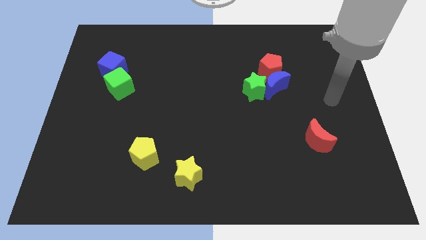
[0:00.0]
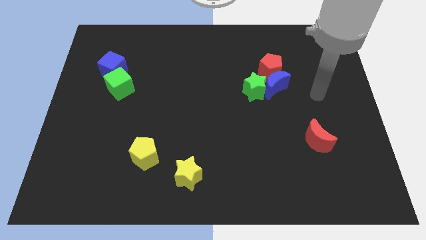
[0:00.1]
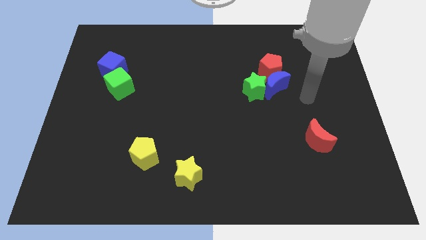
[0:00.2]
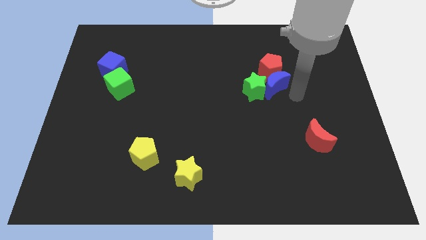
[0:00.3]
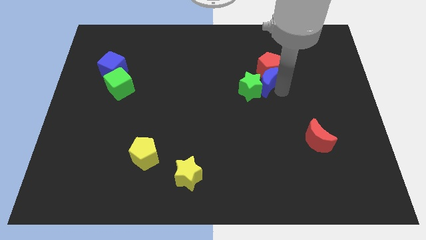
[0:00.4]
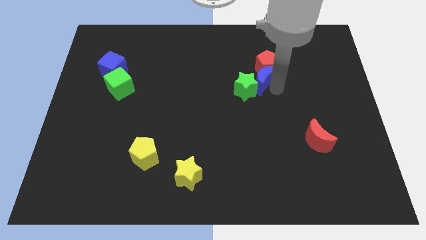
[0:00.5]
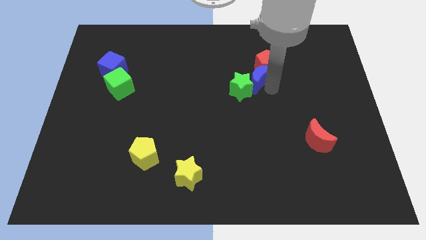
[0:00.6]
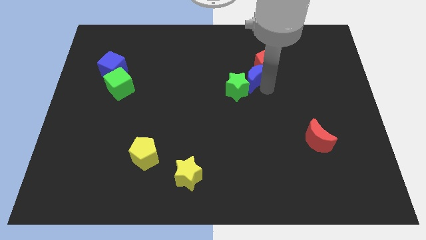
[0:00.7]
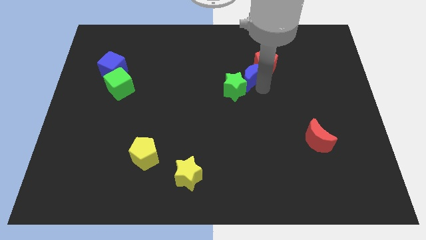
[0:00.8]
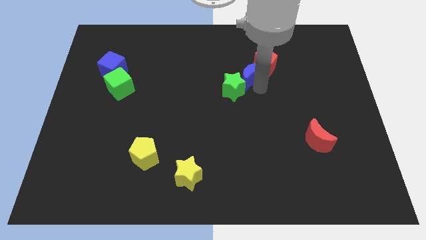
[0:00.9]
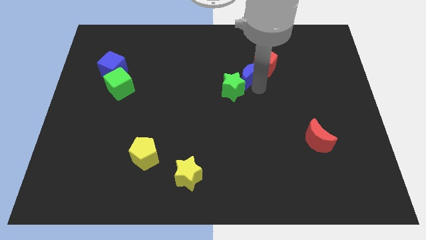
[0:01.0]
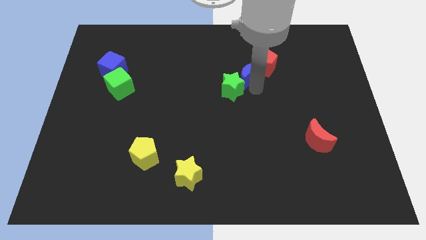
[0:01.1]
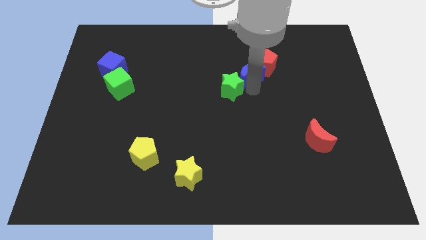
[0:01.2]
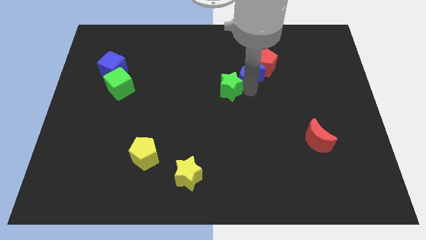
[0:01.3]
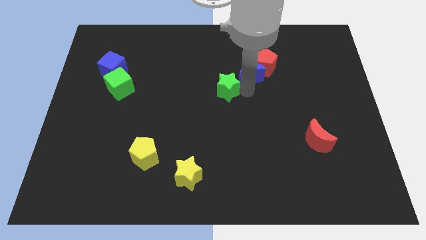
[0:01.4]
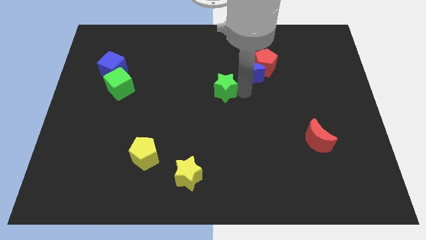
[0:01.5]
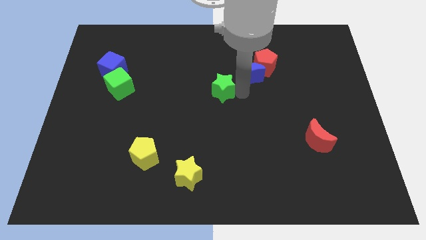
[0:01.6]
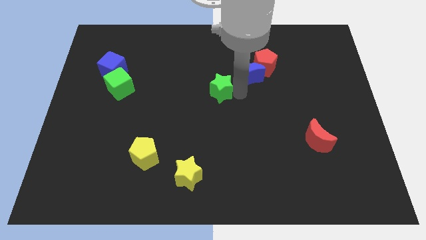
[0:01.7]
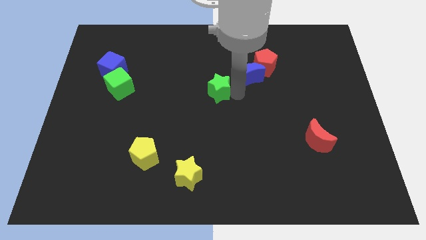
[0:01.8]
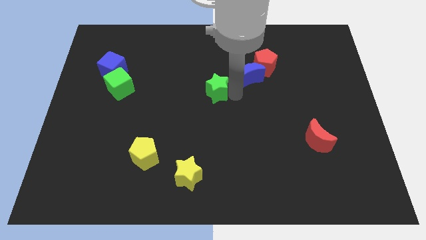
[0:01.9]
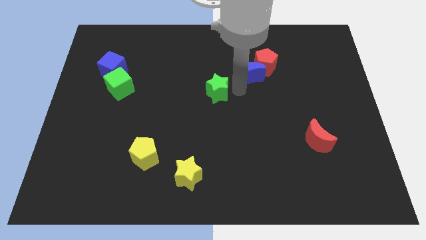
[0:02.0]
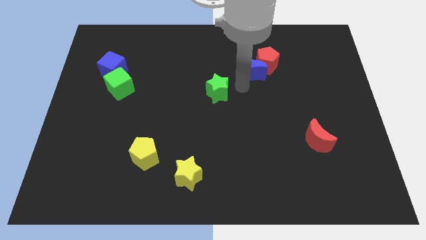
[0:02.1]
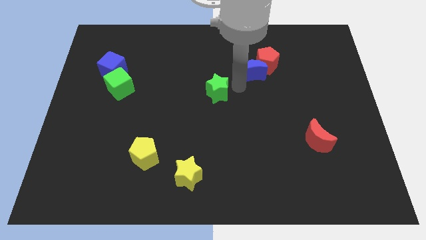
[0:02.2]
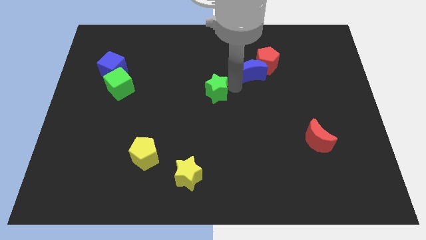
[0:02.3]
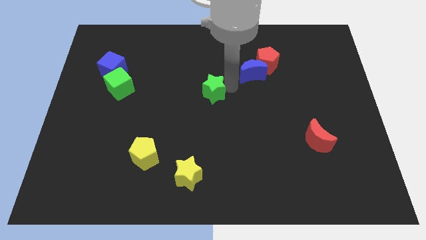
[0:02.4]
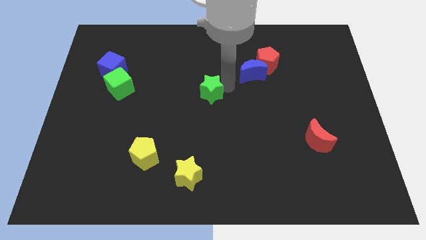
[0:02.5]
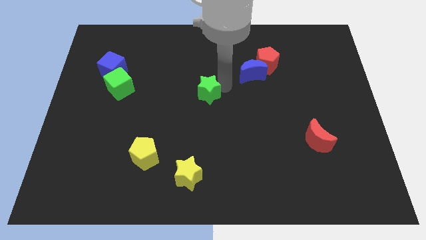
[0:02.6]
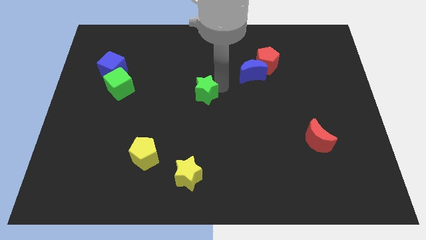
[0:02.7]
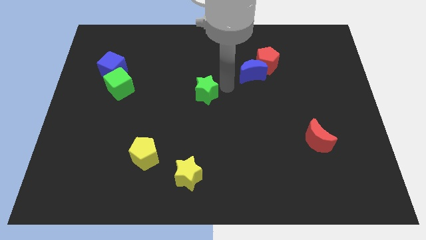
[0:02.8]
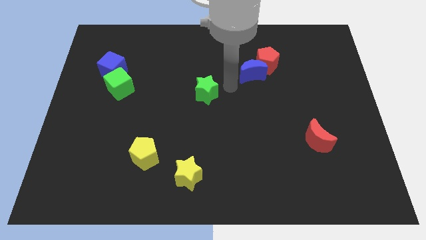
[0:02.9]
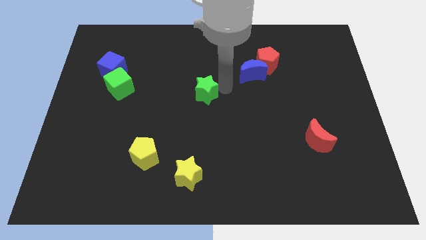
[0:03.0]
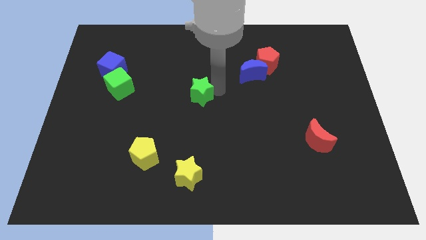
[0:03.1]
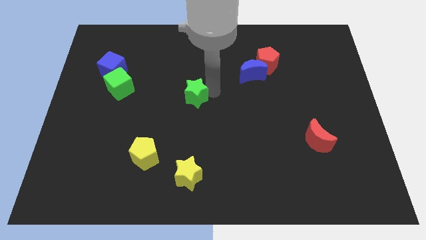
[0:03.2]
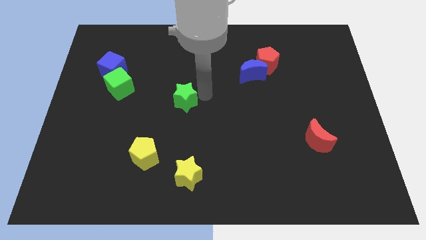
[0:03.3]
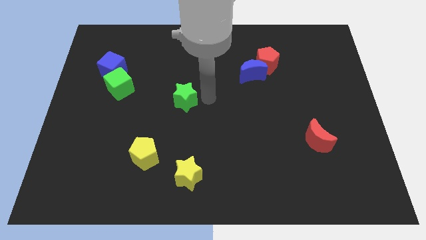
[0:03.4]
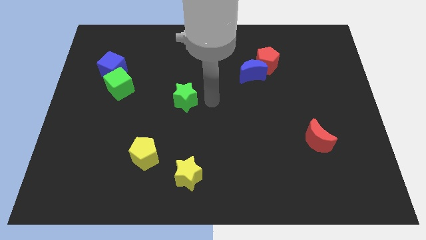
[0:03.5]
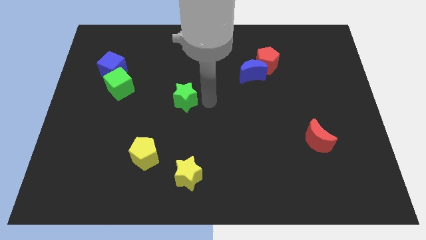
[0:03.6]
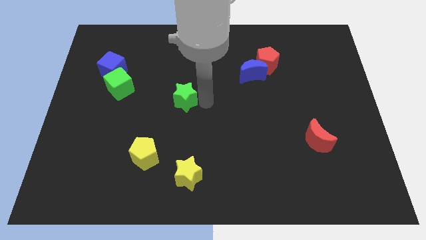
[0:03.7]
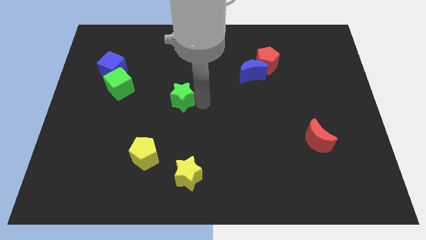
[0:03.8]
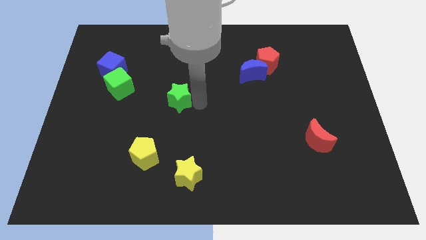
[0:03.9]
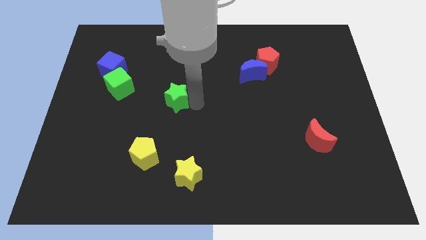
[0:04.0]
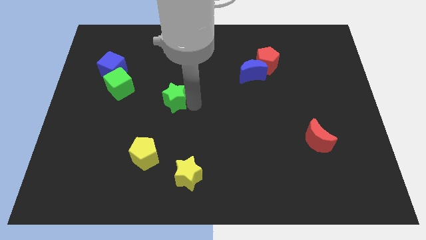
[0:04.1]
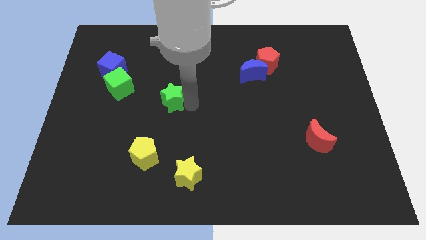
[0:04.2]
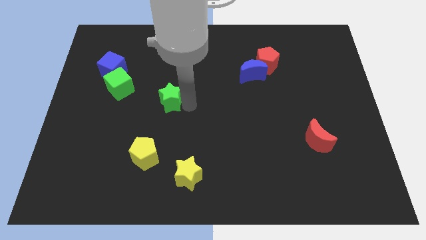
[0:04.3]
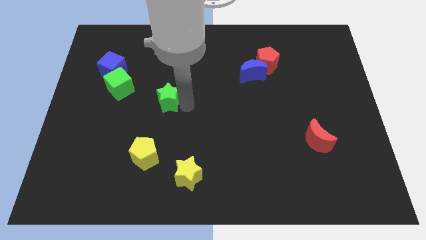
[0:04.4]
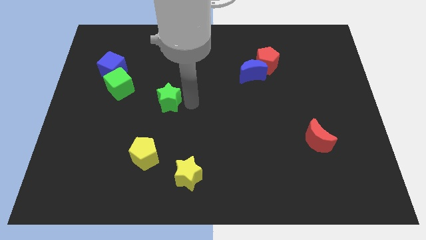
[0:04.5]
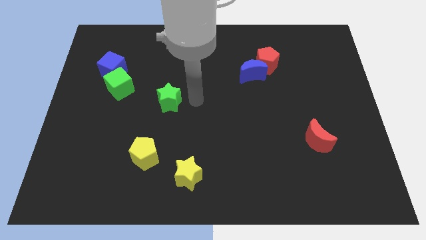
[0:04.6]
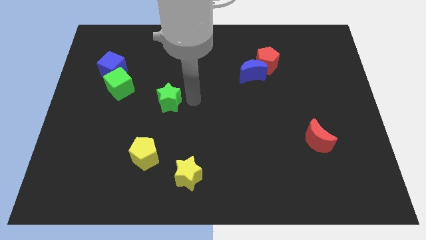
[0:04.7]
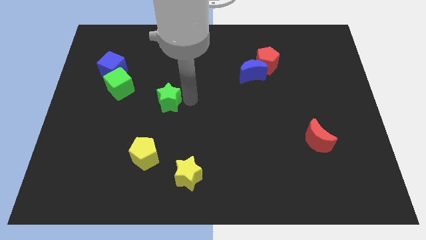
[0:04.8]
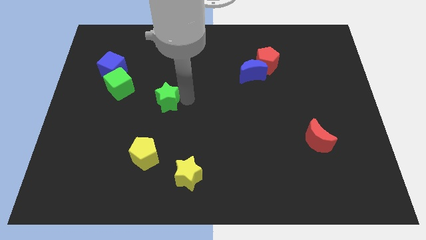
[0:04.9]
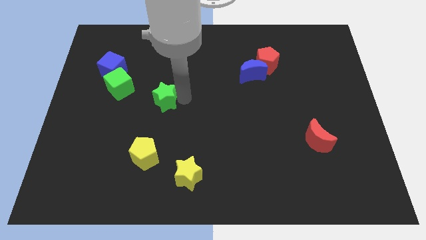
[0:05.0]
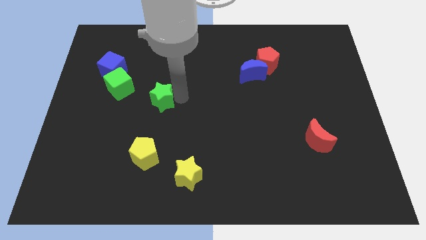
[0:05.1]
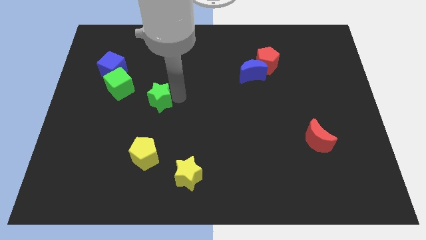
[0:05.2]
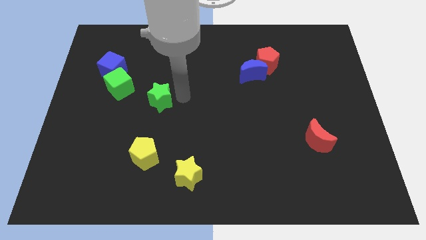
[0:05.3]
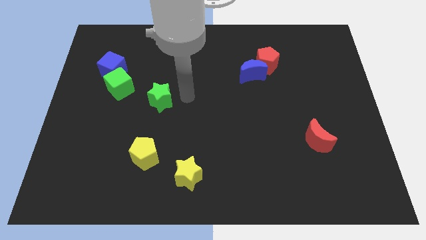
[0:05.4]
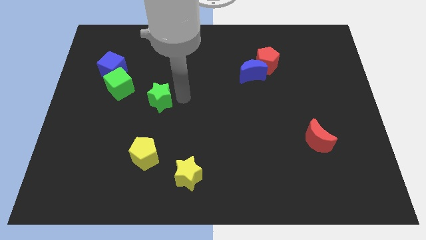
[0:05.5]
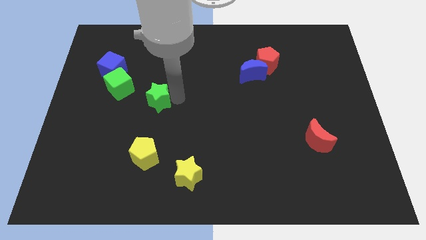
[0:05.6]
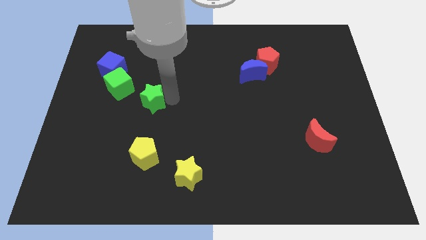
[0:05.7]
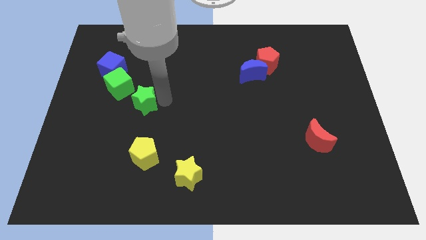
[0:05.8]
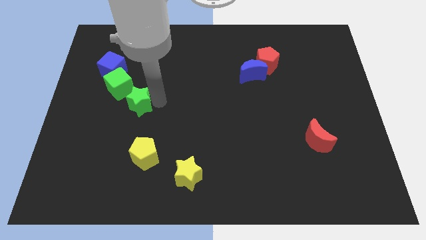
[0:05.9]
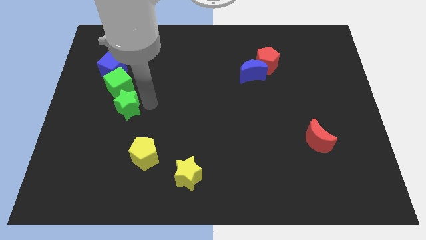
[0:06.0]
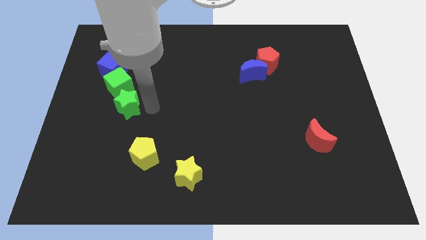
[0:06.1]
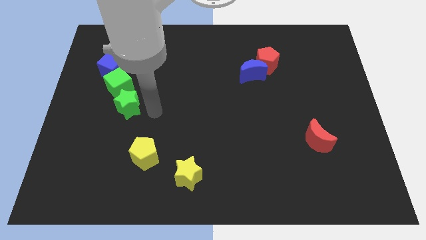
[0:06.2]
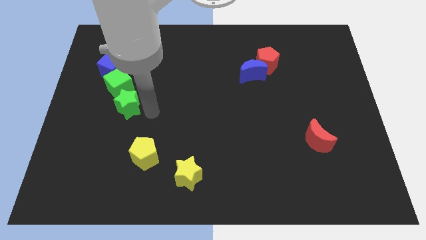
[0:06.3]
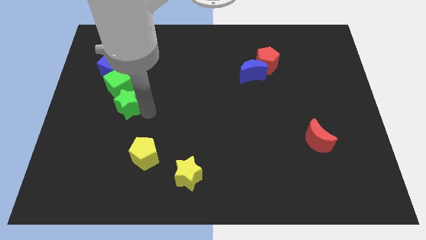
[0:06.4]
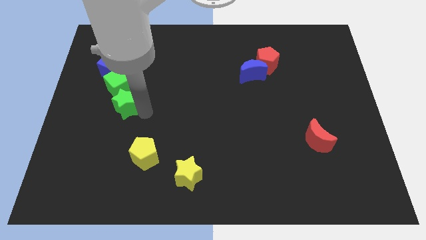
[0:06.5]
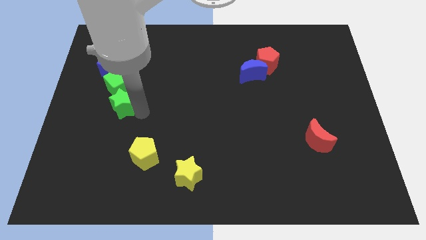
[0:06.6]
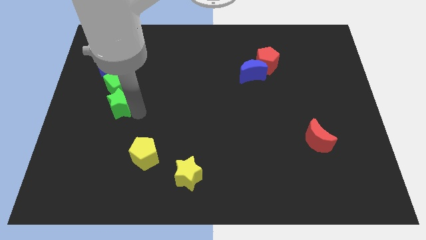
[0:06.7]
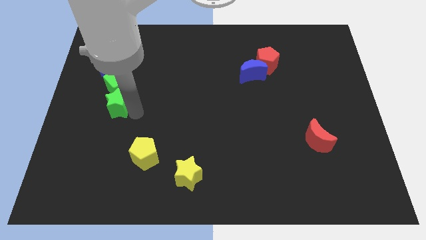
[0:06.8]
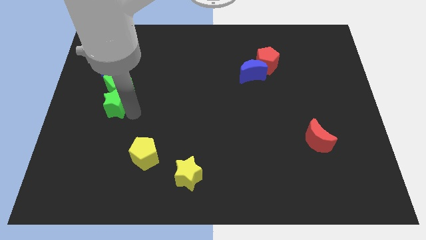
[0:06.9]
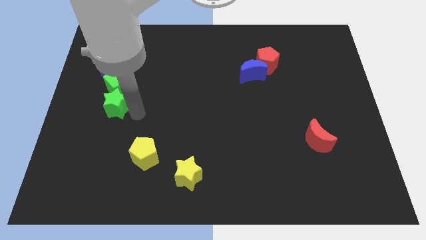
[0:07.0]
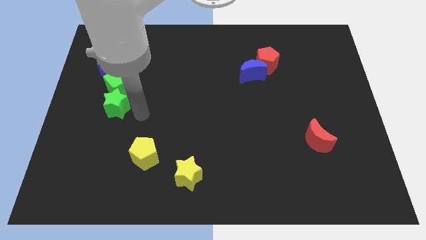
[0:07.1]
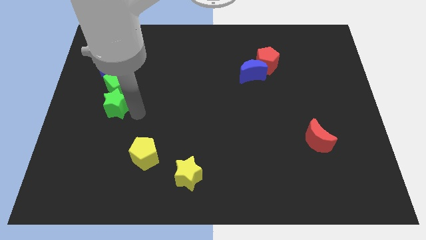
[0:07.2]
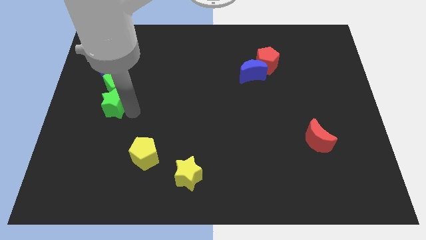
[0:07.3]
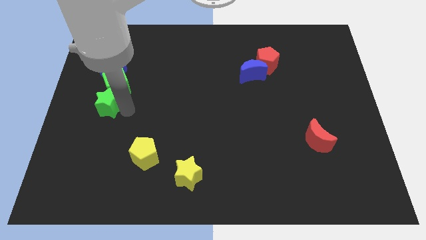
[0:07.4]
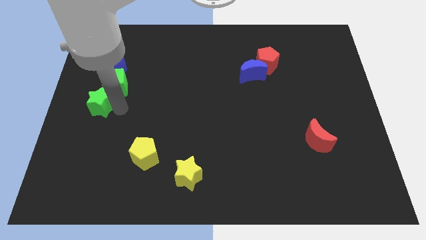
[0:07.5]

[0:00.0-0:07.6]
slide the green star to the center left
